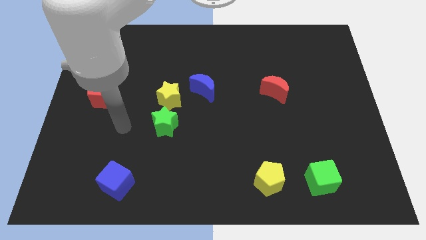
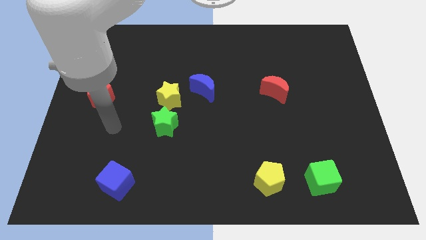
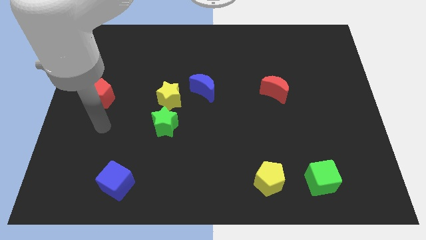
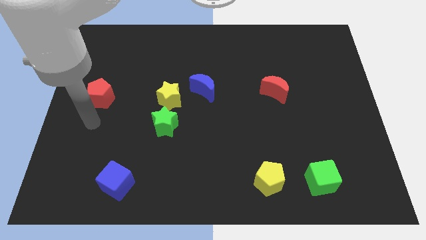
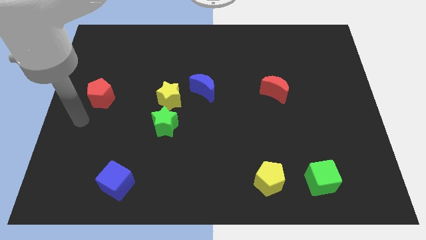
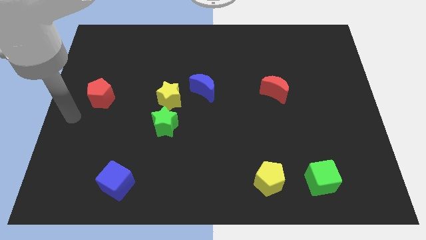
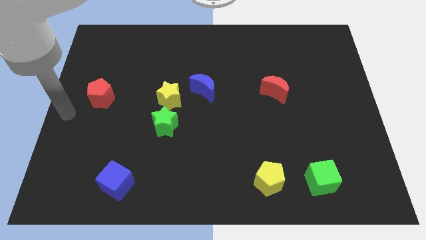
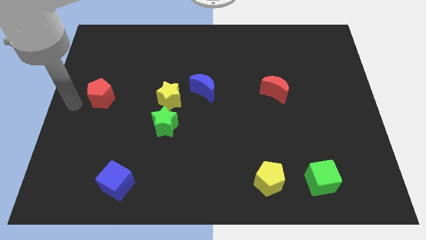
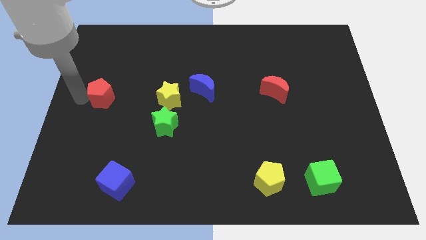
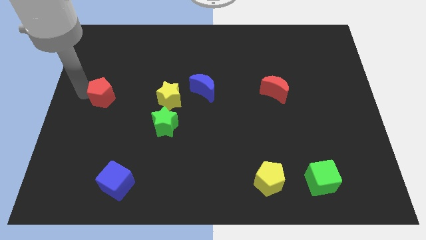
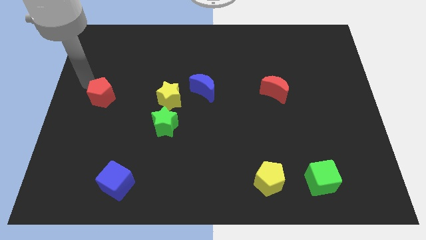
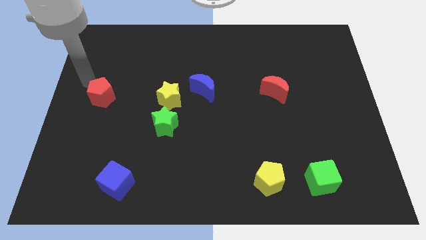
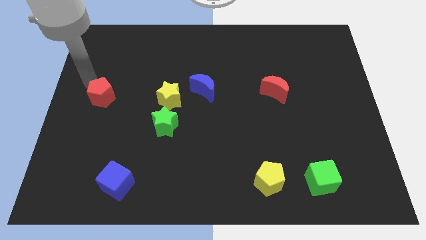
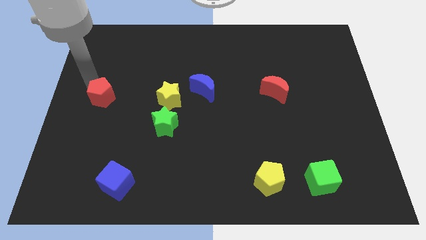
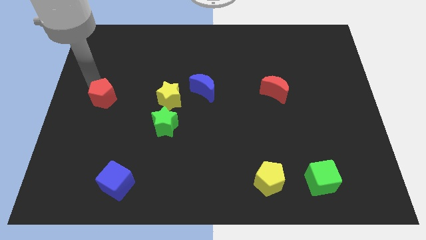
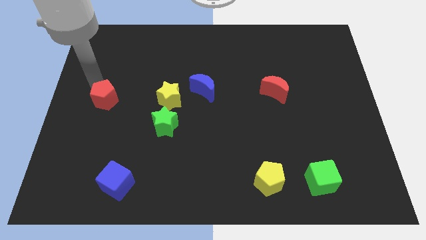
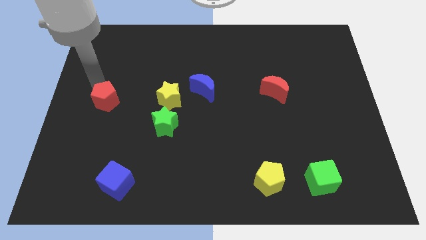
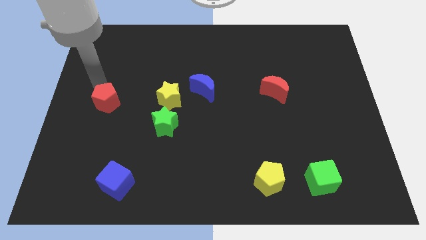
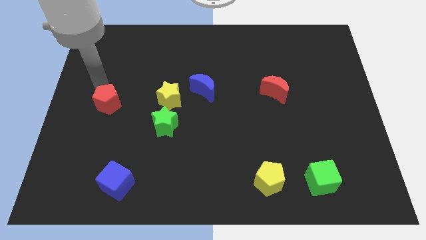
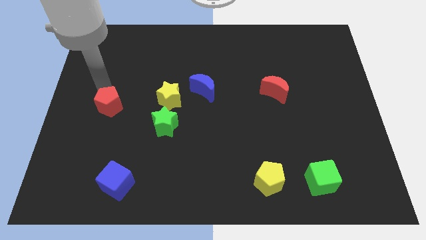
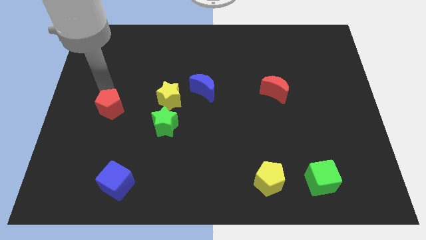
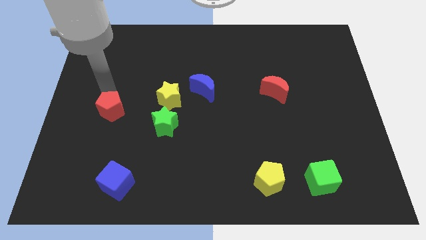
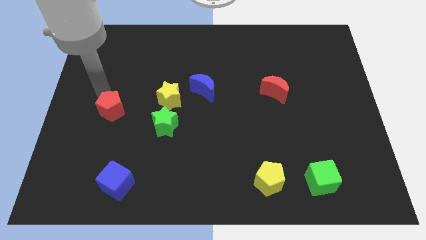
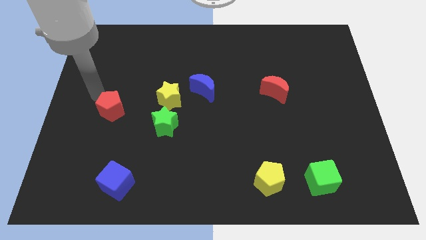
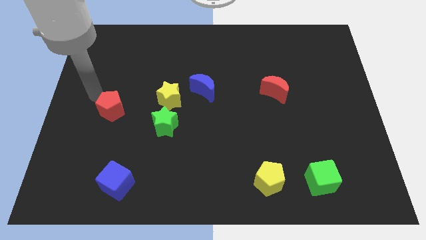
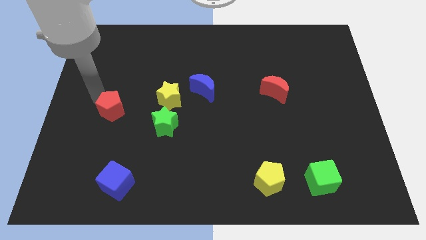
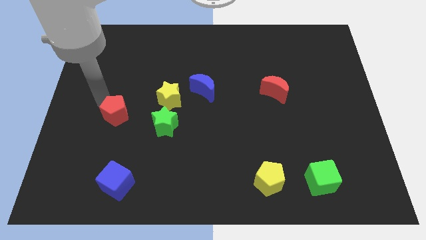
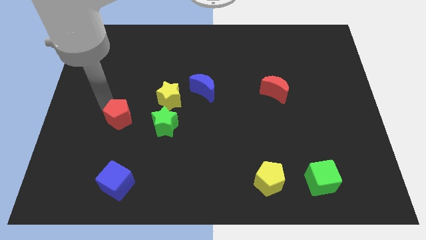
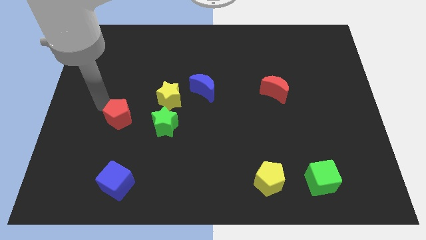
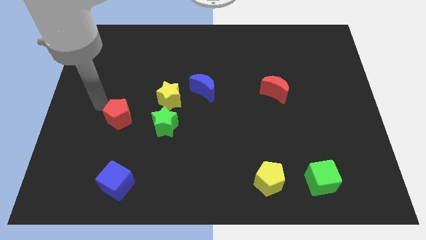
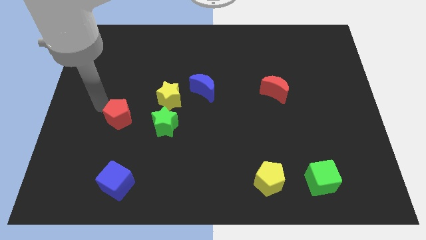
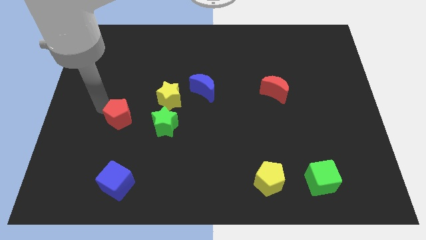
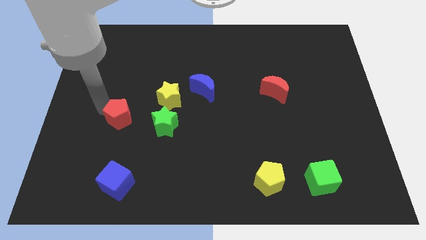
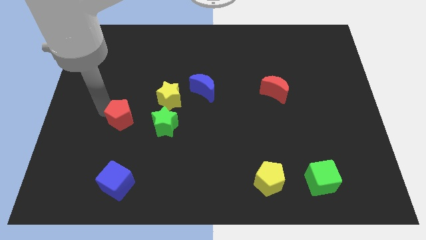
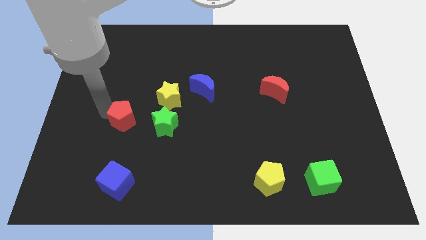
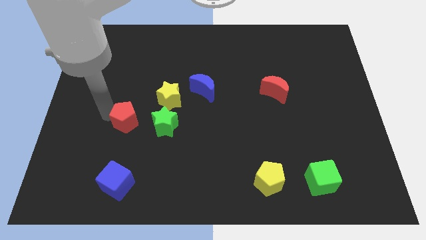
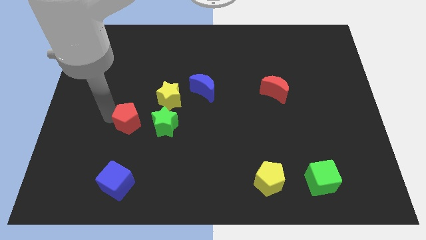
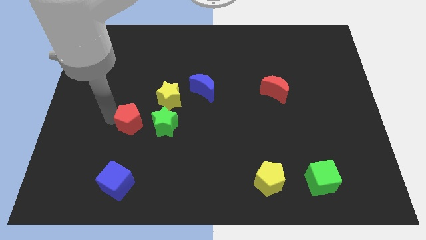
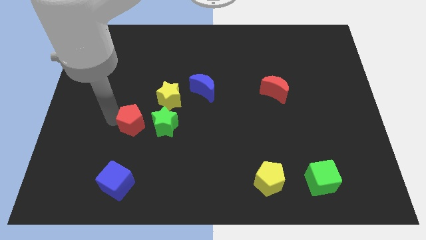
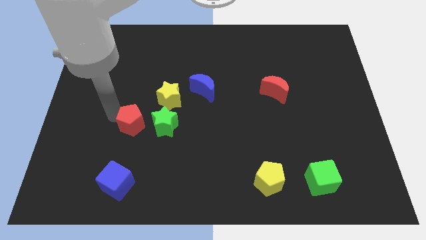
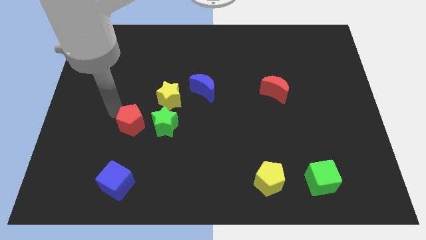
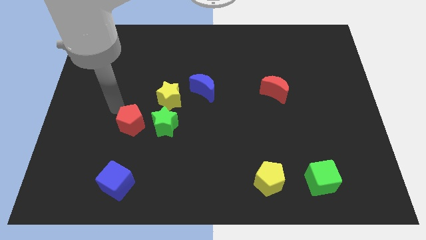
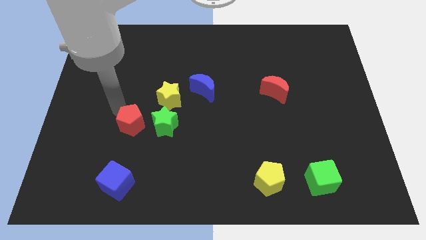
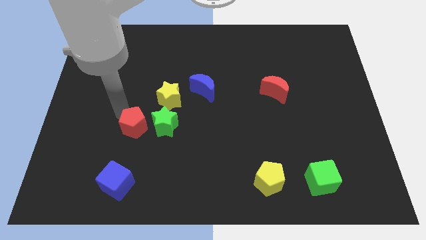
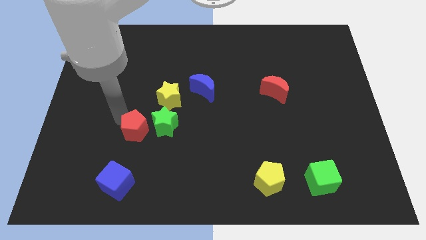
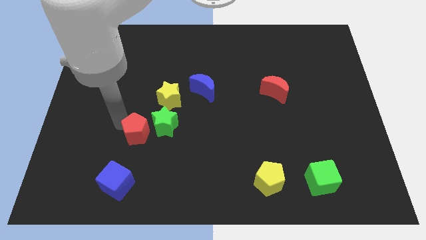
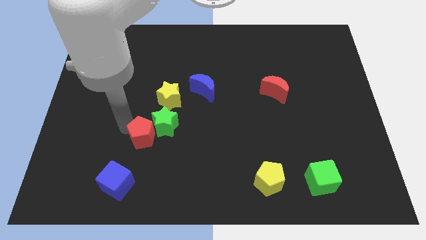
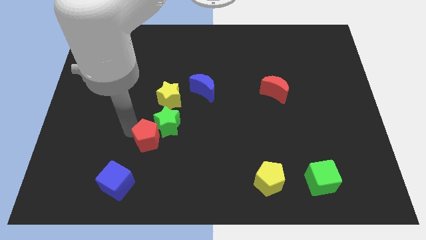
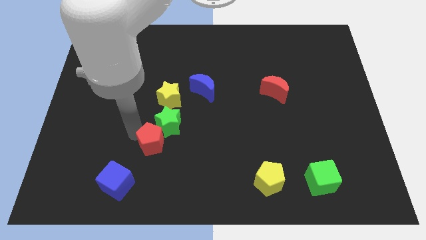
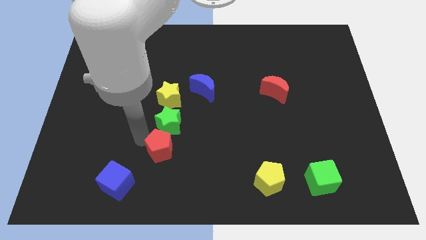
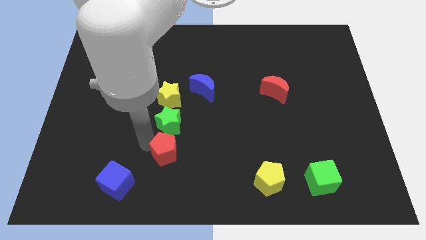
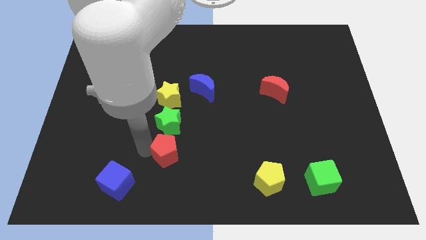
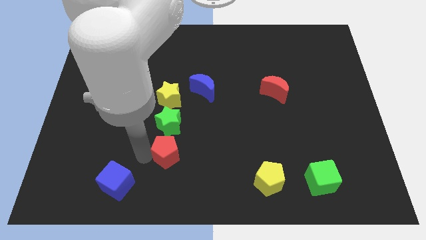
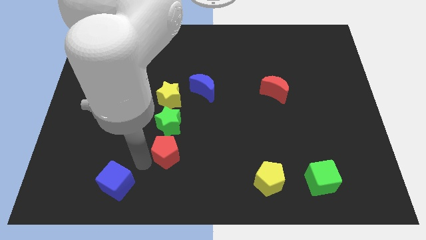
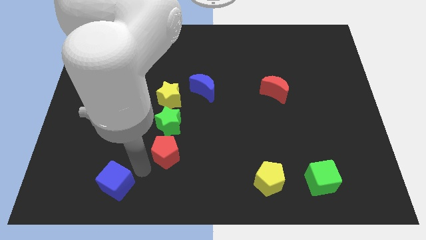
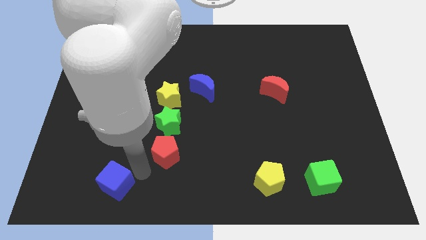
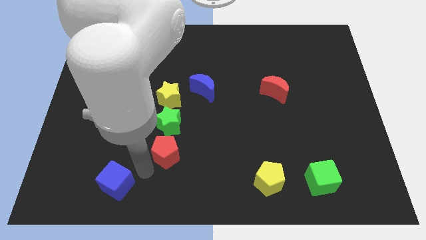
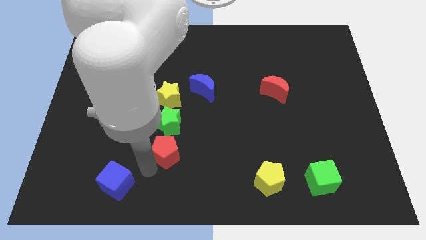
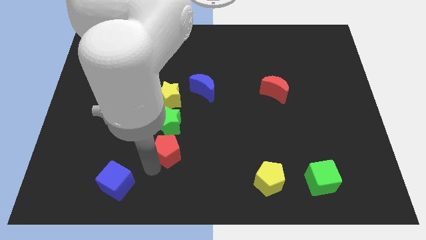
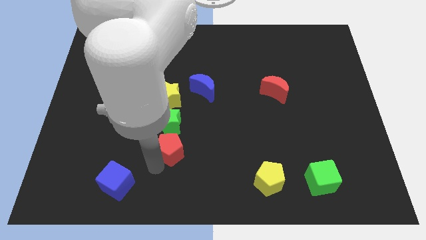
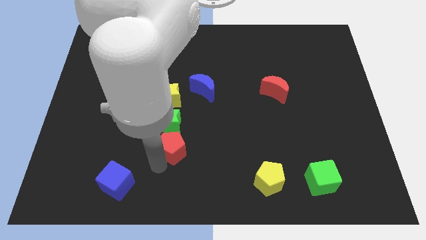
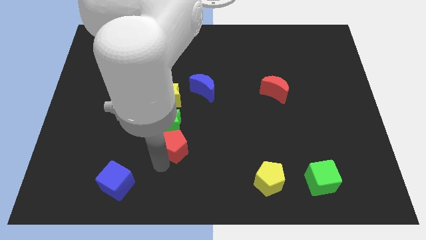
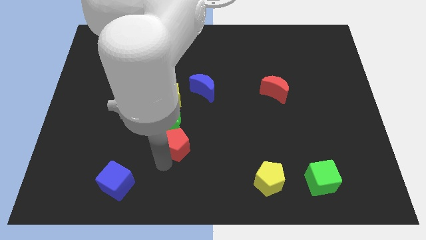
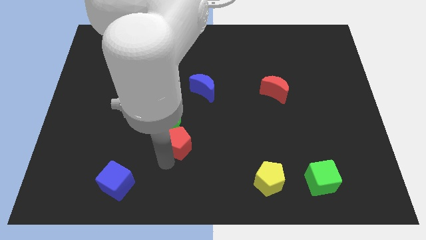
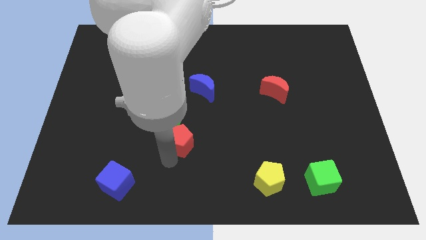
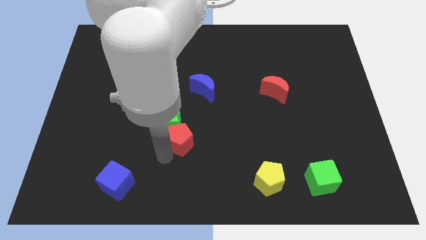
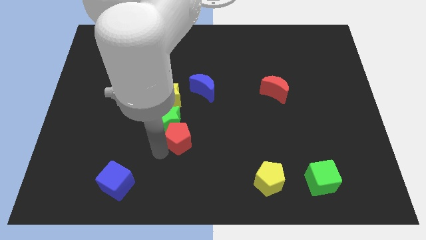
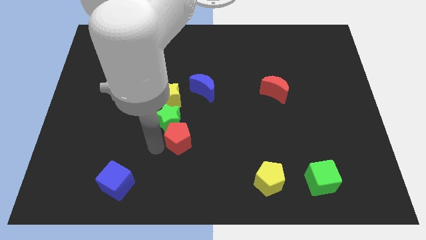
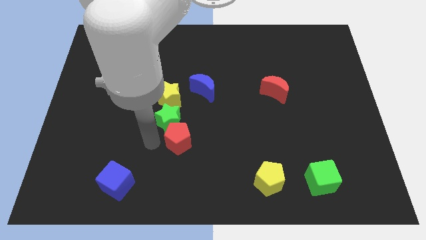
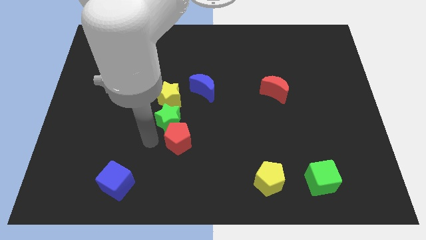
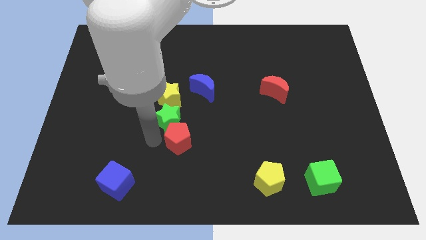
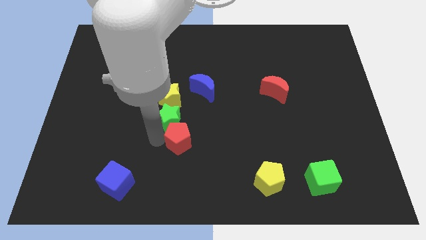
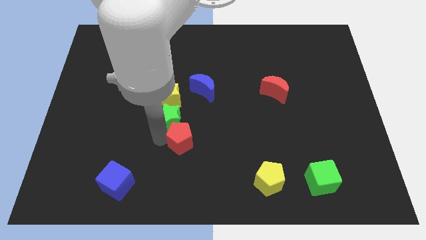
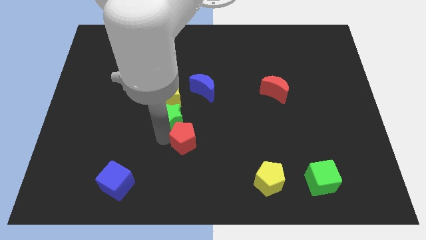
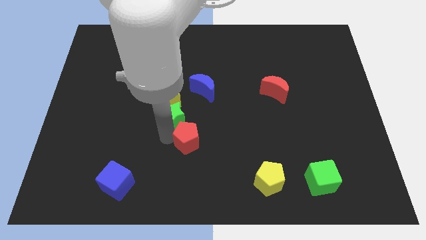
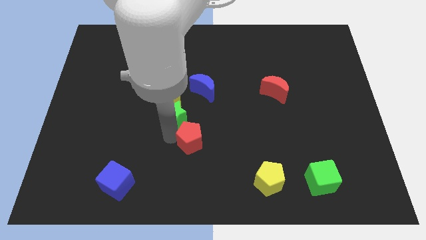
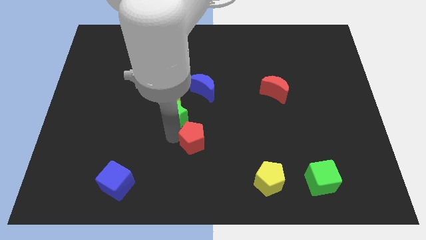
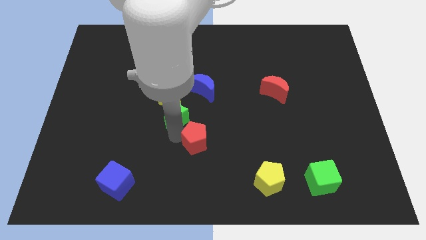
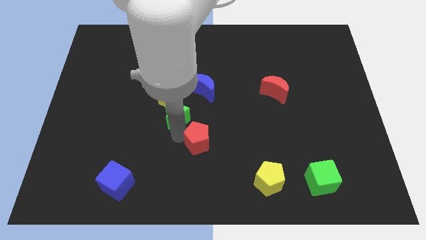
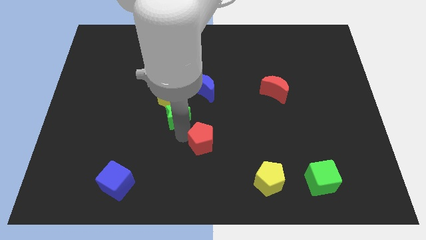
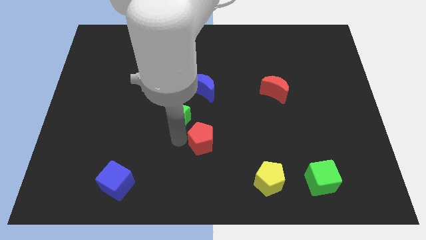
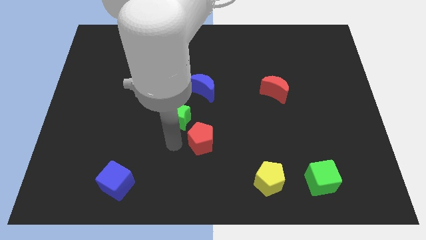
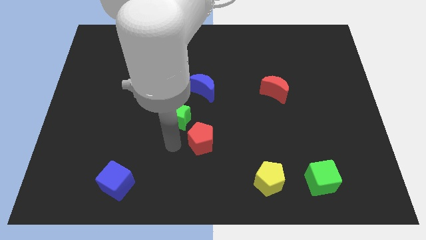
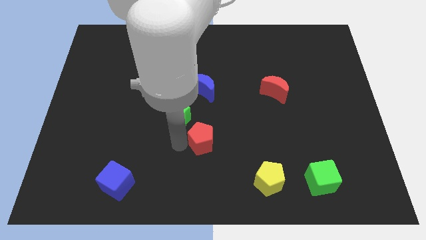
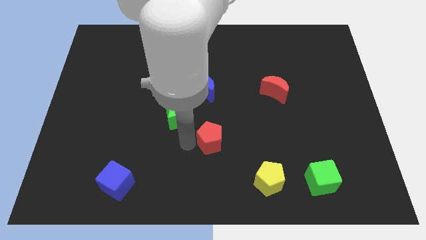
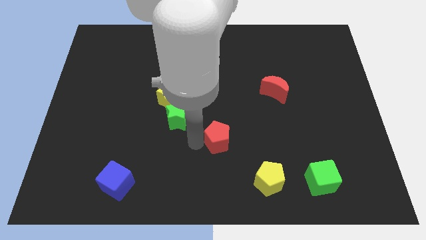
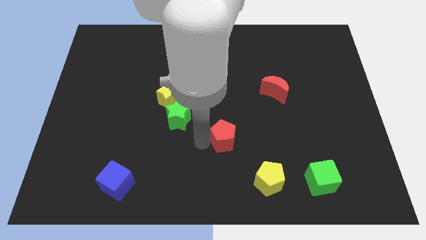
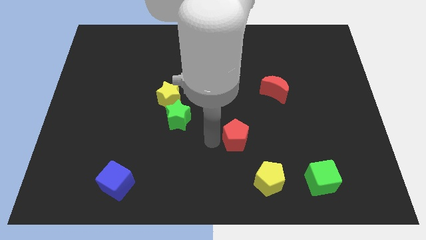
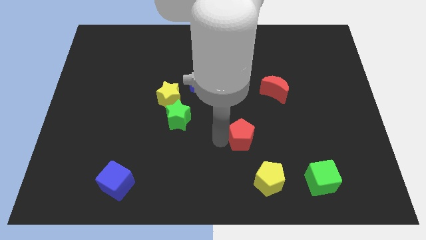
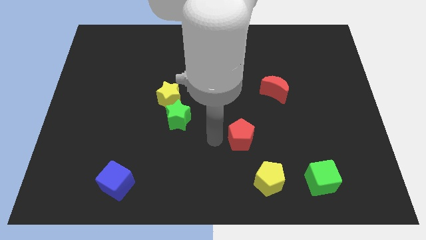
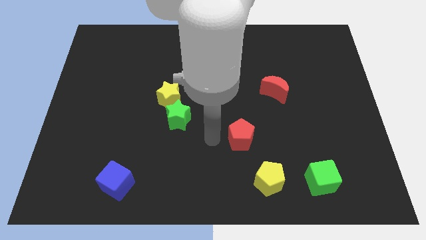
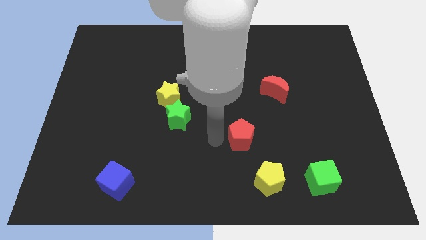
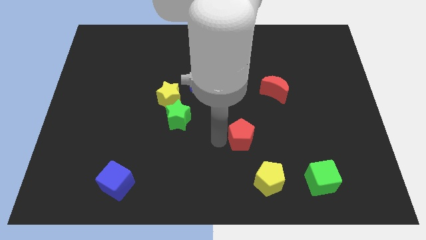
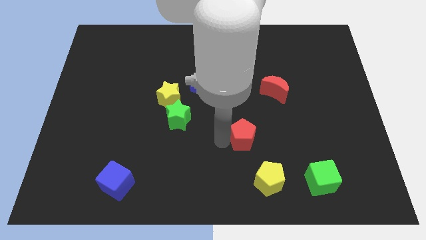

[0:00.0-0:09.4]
move the red pentagon to the top of the yellow pentagon
